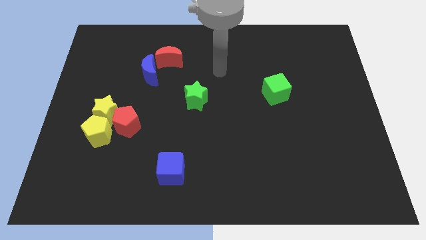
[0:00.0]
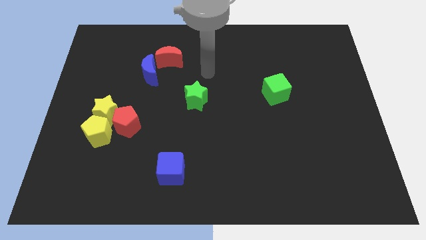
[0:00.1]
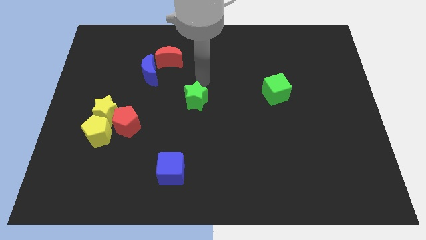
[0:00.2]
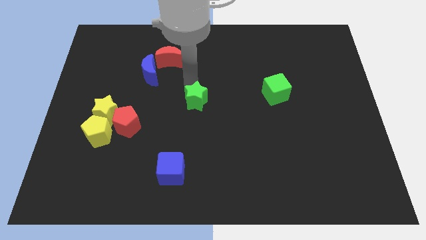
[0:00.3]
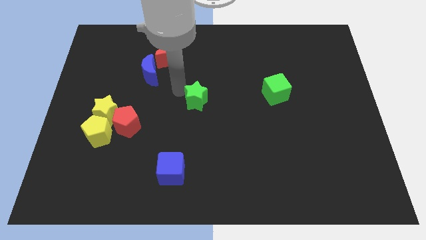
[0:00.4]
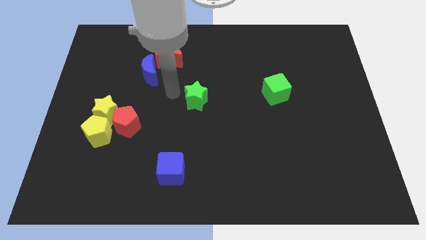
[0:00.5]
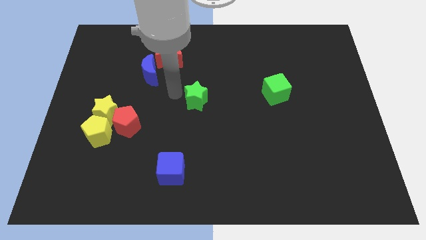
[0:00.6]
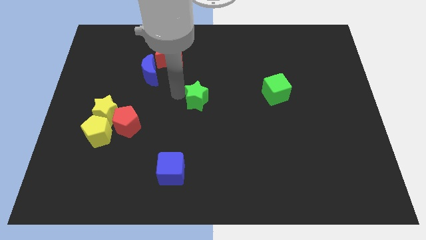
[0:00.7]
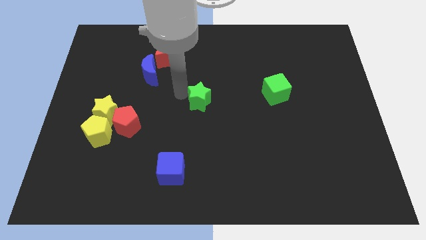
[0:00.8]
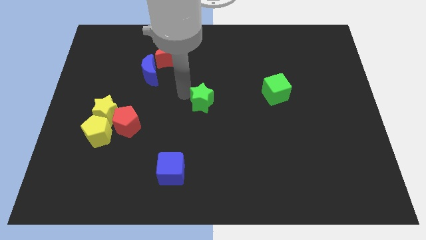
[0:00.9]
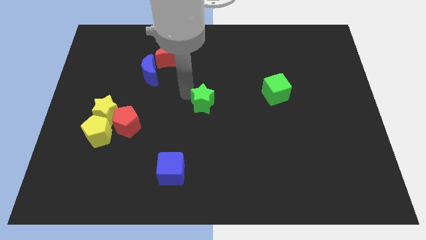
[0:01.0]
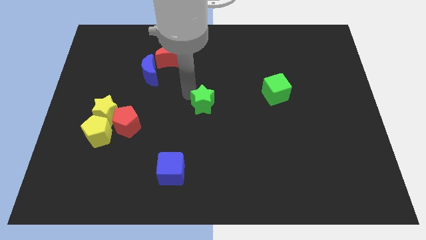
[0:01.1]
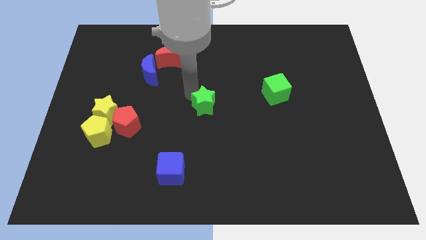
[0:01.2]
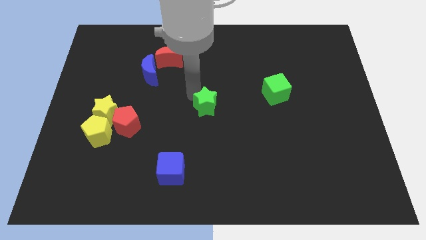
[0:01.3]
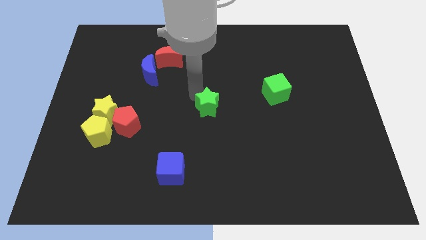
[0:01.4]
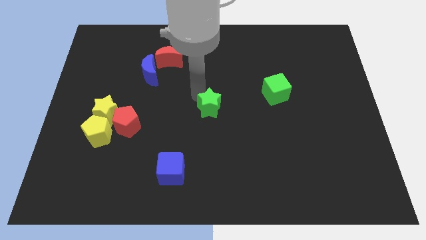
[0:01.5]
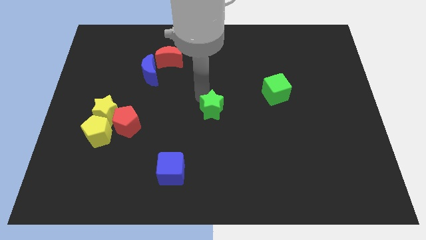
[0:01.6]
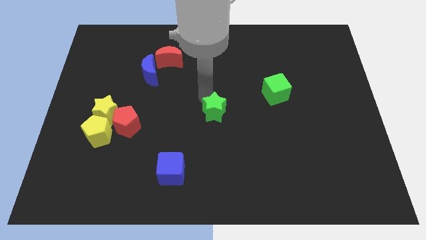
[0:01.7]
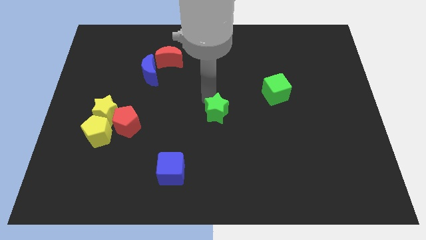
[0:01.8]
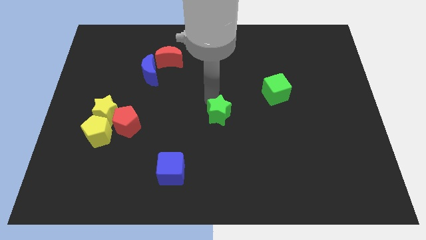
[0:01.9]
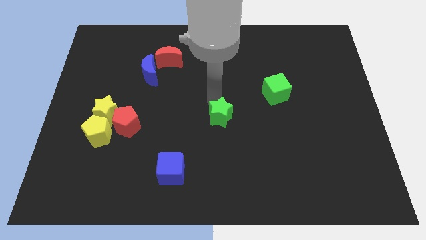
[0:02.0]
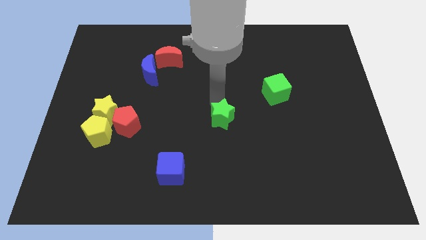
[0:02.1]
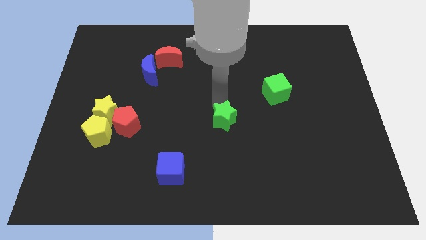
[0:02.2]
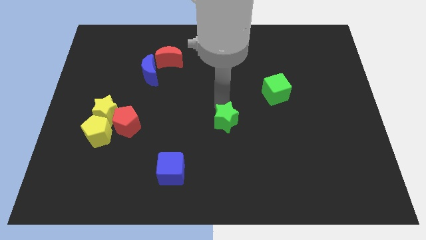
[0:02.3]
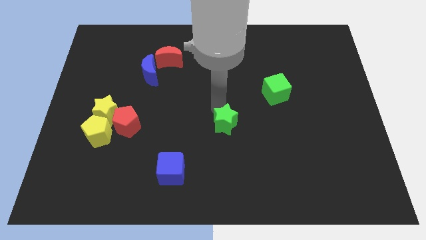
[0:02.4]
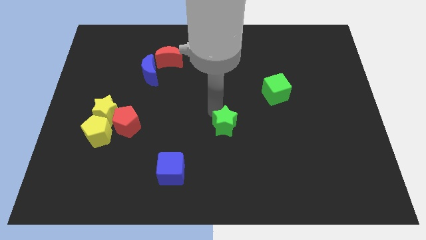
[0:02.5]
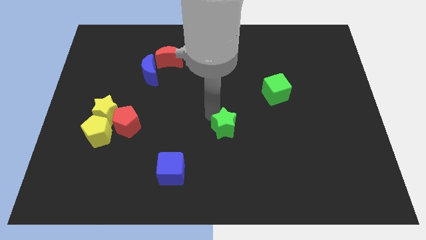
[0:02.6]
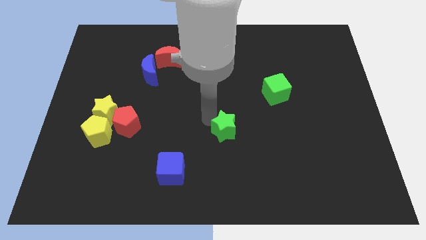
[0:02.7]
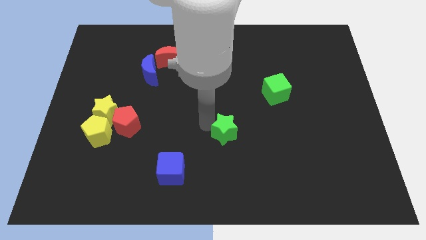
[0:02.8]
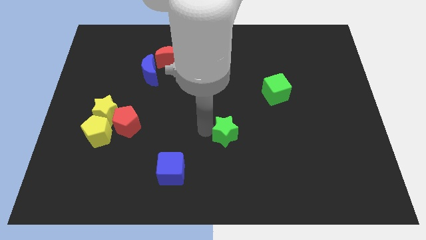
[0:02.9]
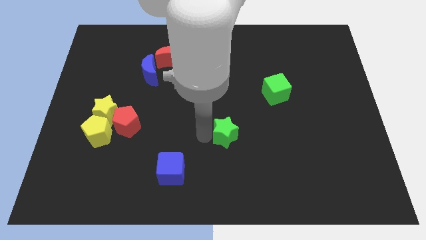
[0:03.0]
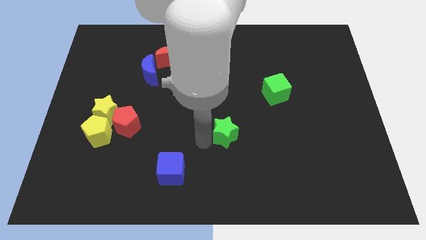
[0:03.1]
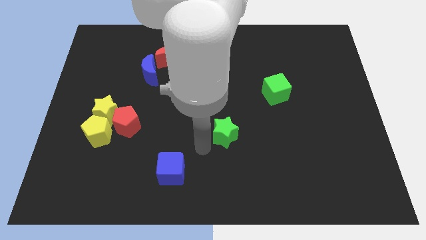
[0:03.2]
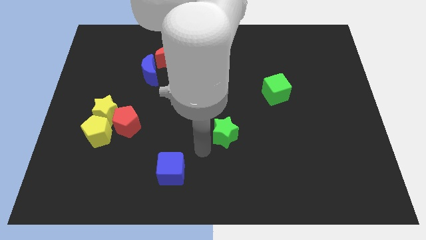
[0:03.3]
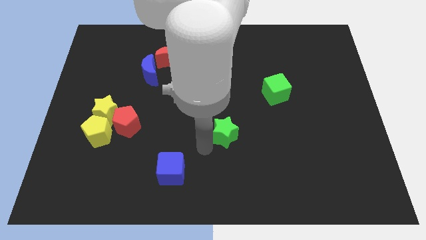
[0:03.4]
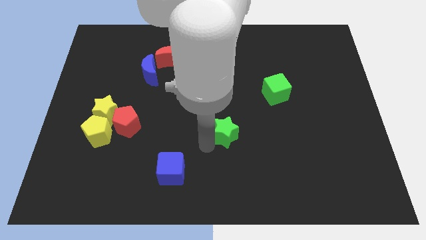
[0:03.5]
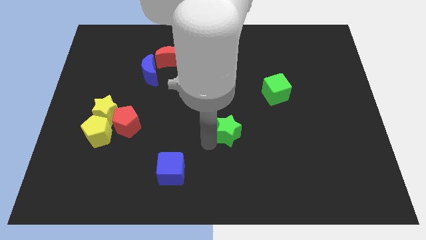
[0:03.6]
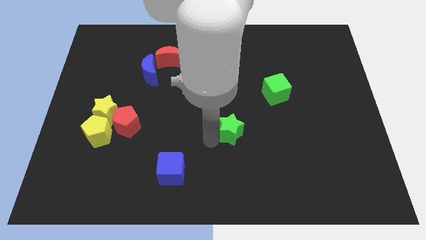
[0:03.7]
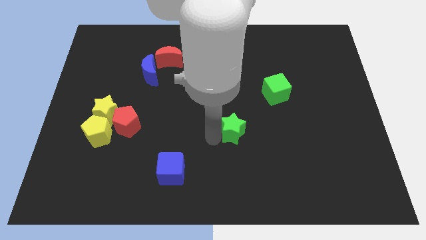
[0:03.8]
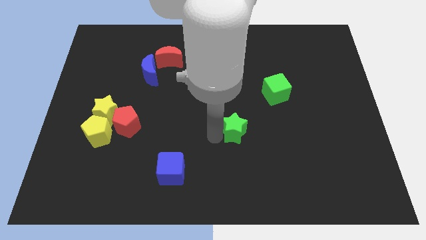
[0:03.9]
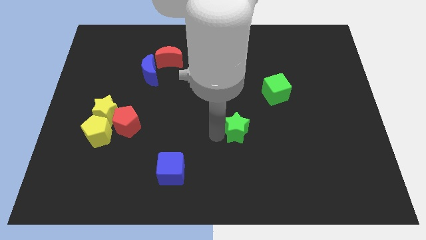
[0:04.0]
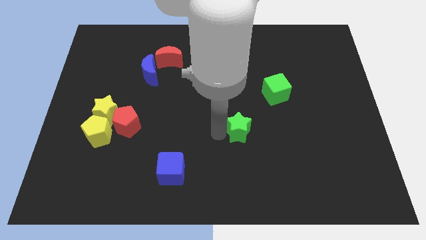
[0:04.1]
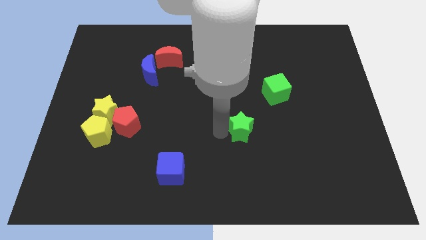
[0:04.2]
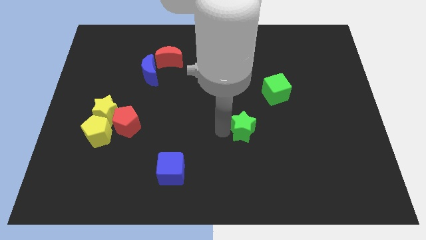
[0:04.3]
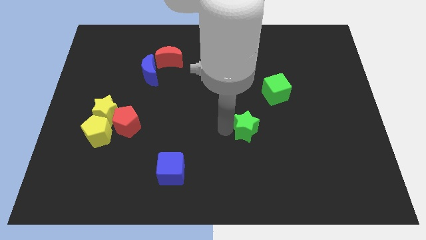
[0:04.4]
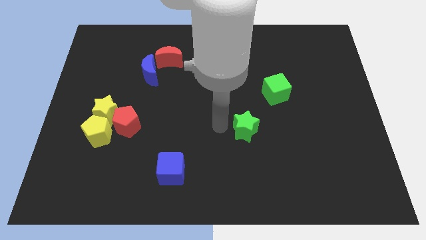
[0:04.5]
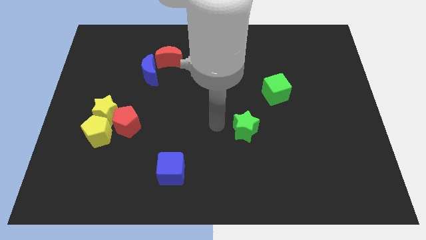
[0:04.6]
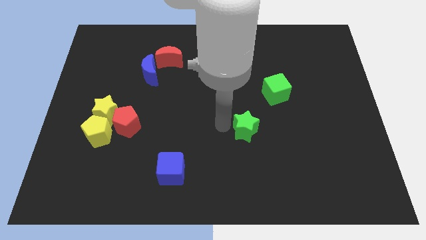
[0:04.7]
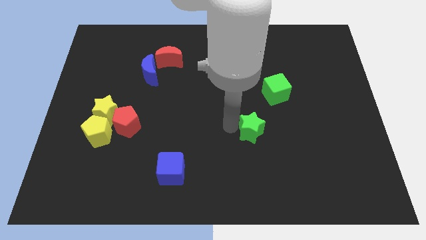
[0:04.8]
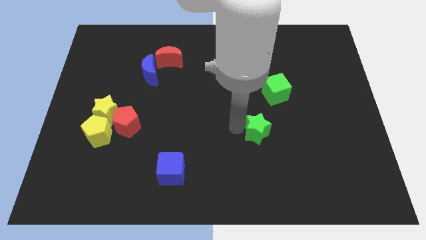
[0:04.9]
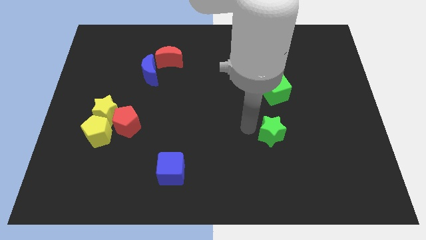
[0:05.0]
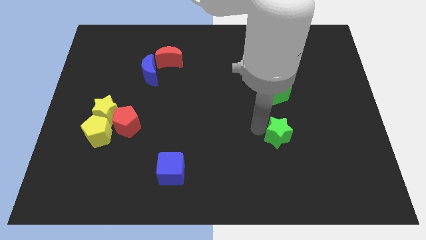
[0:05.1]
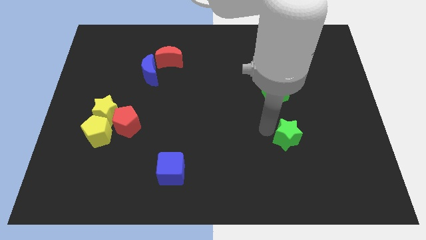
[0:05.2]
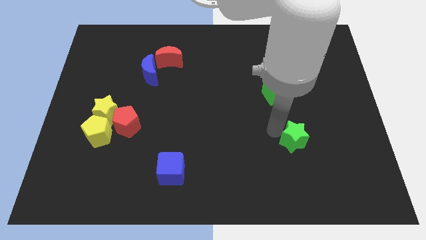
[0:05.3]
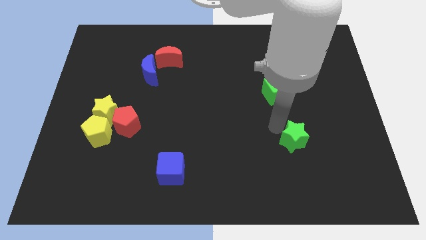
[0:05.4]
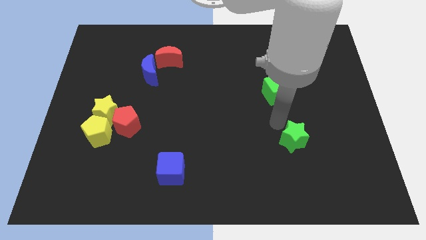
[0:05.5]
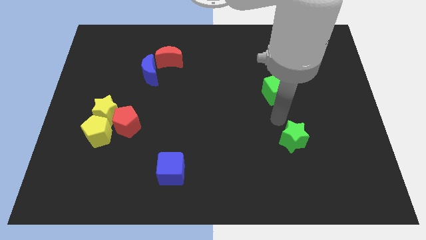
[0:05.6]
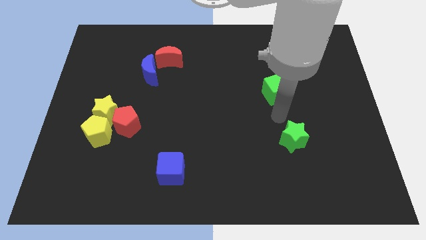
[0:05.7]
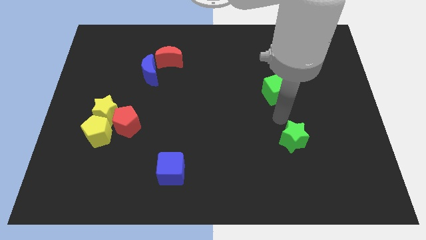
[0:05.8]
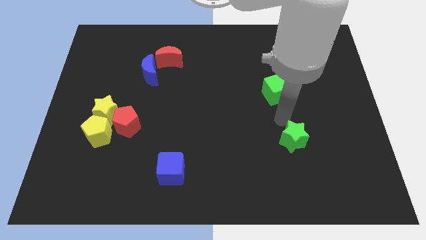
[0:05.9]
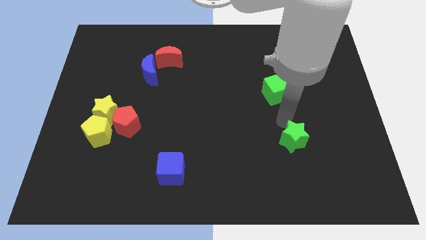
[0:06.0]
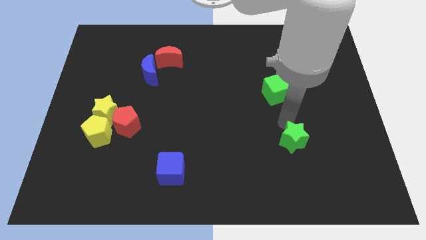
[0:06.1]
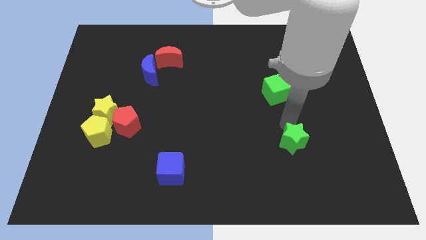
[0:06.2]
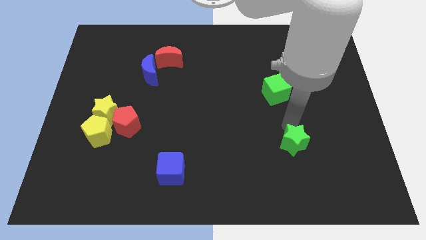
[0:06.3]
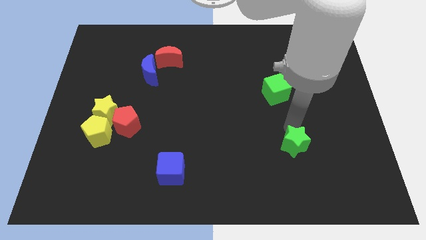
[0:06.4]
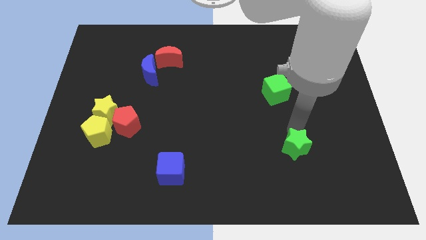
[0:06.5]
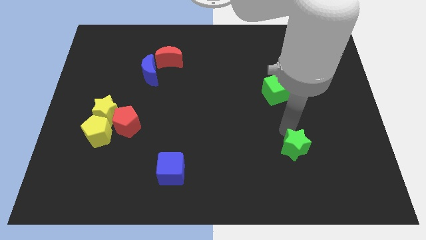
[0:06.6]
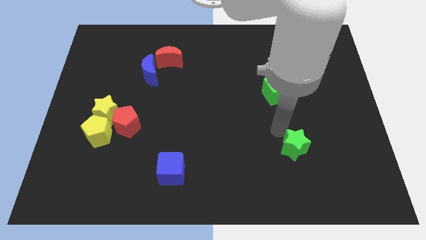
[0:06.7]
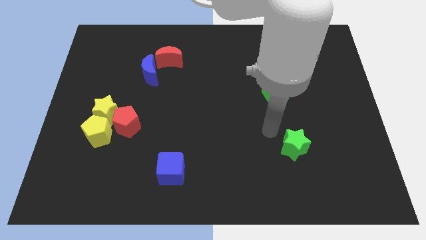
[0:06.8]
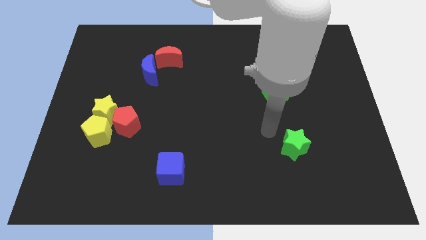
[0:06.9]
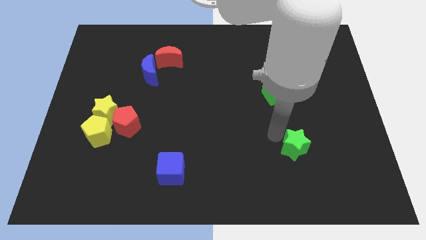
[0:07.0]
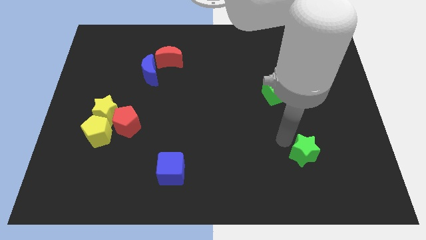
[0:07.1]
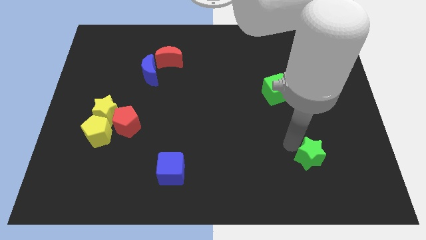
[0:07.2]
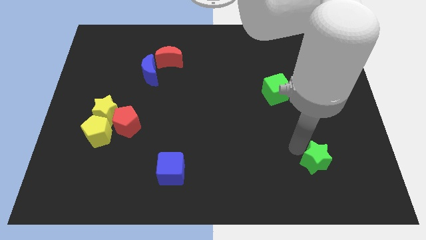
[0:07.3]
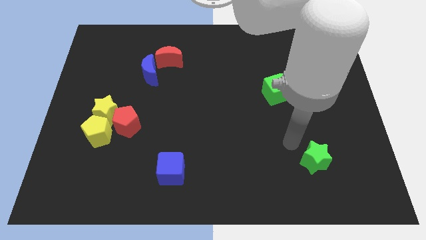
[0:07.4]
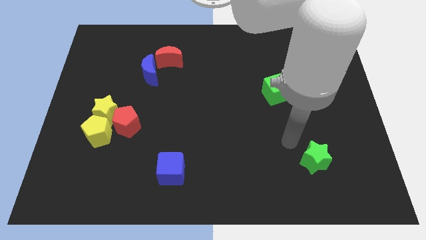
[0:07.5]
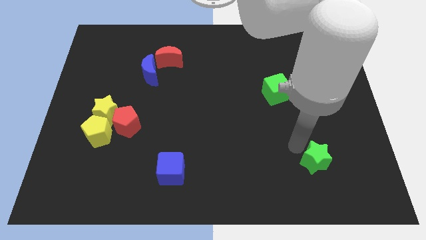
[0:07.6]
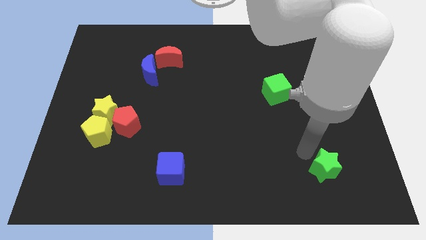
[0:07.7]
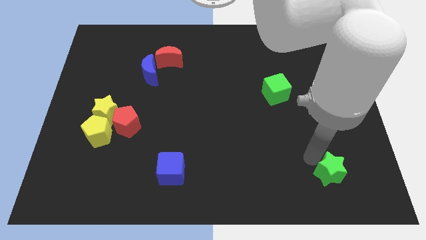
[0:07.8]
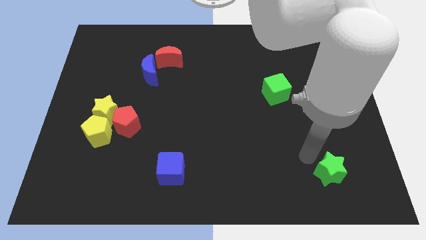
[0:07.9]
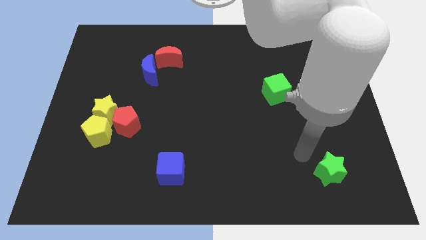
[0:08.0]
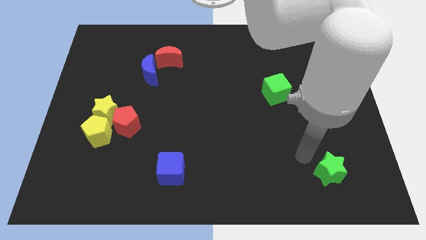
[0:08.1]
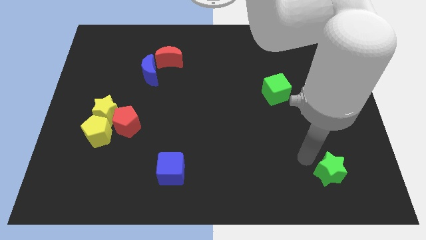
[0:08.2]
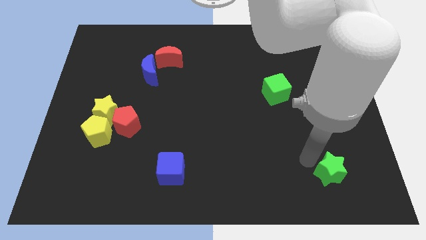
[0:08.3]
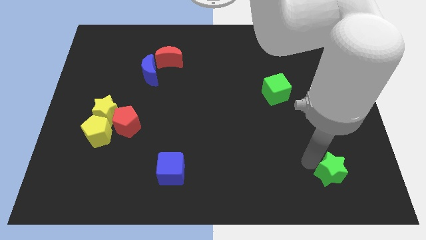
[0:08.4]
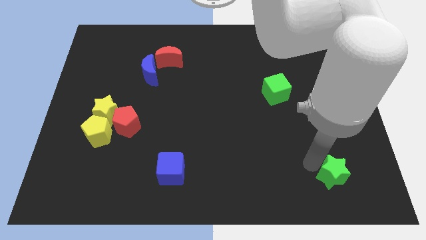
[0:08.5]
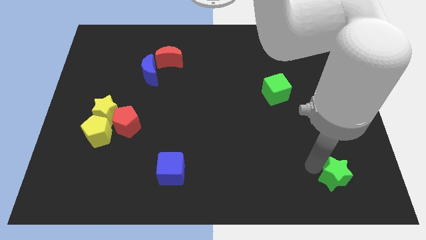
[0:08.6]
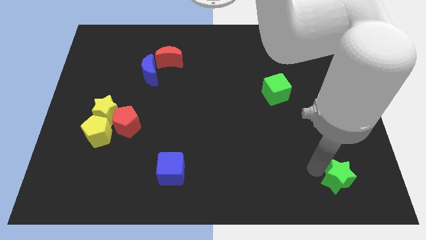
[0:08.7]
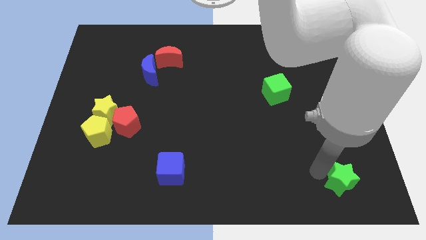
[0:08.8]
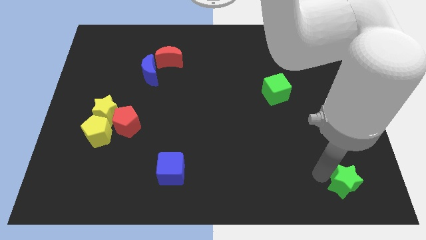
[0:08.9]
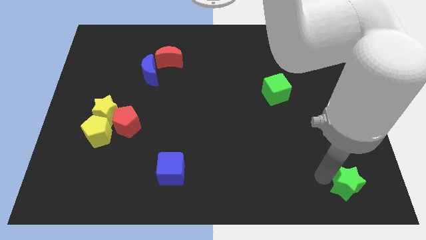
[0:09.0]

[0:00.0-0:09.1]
slide the green star to the bottom right
